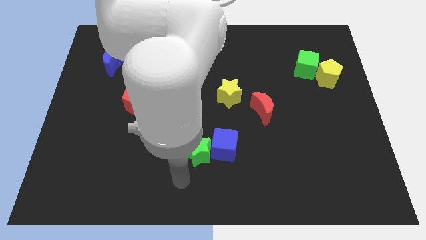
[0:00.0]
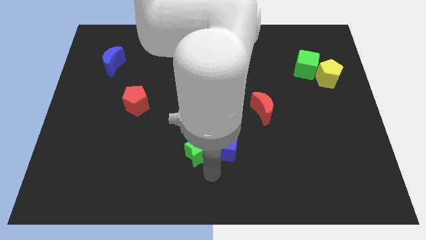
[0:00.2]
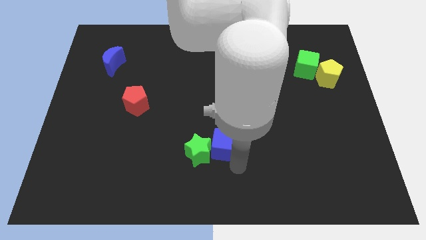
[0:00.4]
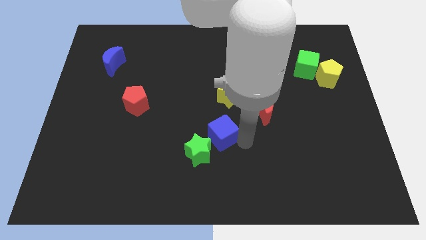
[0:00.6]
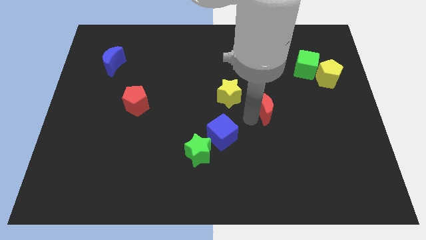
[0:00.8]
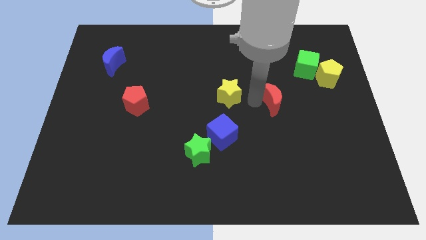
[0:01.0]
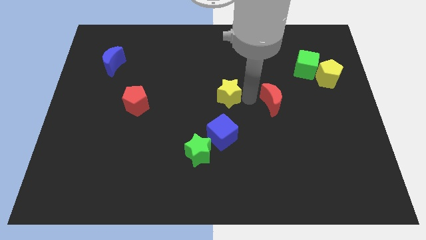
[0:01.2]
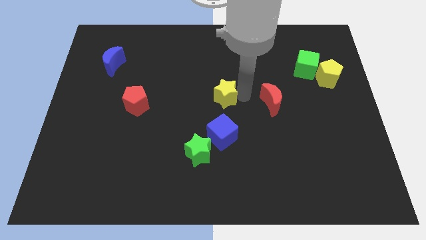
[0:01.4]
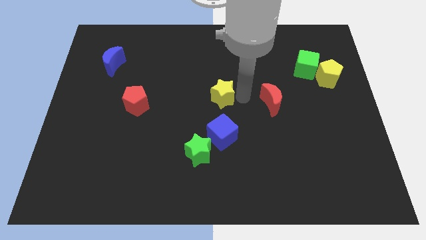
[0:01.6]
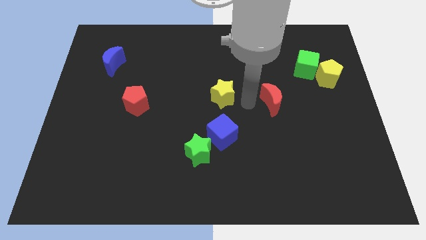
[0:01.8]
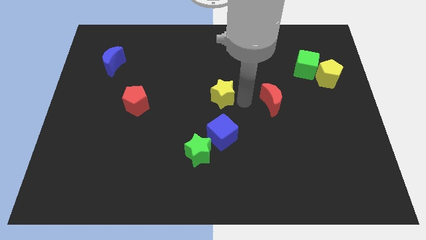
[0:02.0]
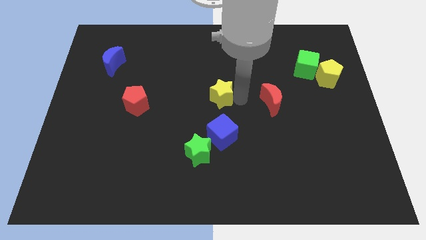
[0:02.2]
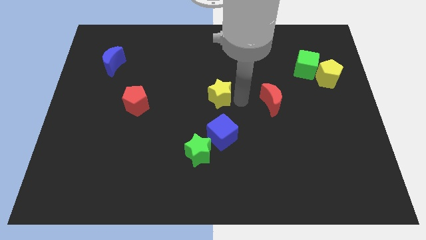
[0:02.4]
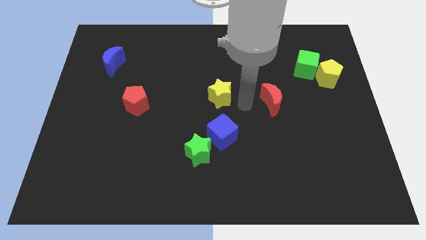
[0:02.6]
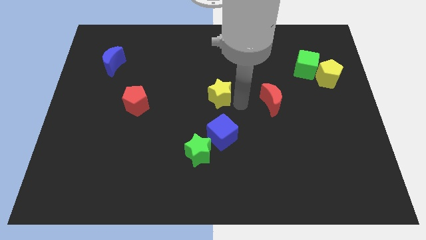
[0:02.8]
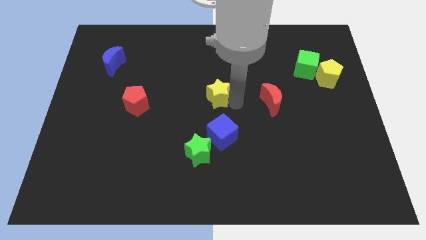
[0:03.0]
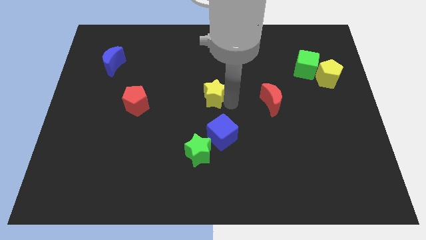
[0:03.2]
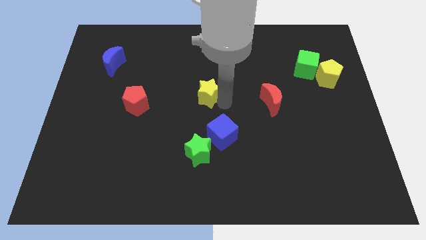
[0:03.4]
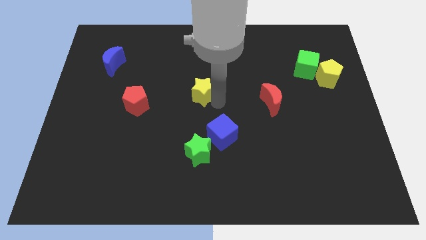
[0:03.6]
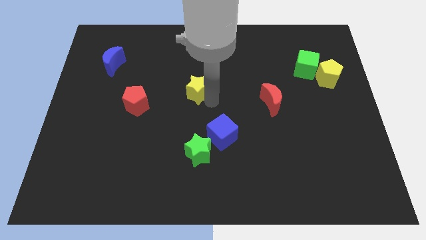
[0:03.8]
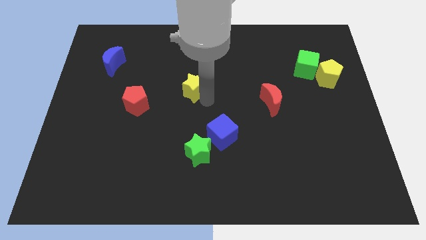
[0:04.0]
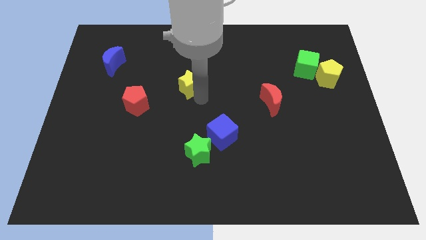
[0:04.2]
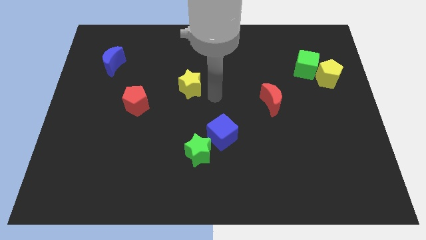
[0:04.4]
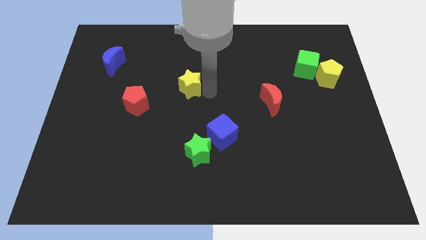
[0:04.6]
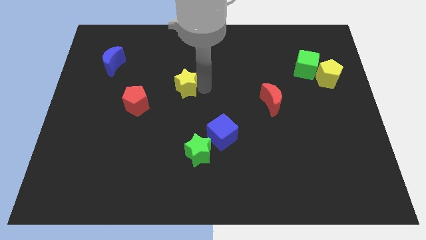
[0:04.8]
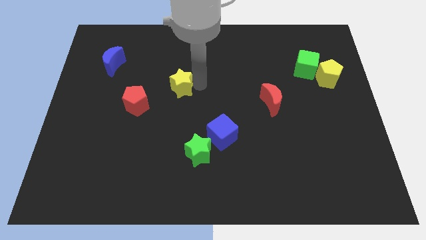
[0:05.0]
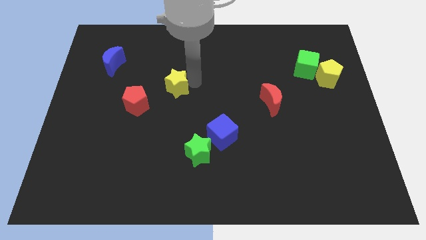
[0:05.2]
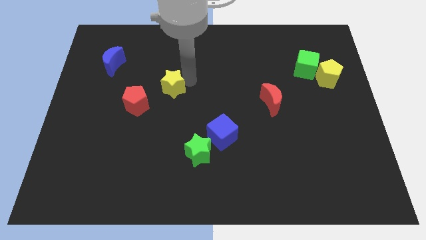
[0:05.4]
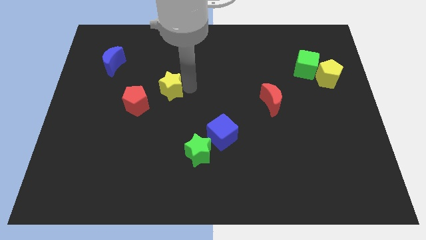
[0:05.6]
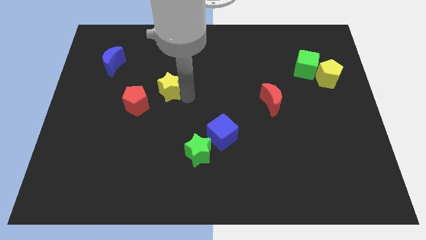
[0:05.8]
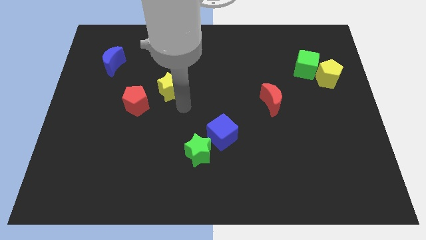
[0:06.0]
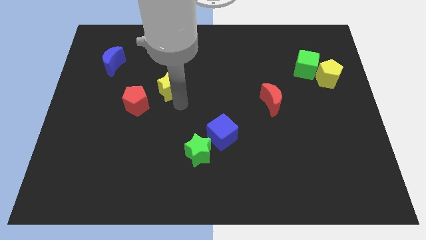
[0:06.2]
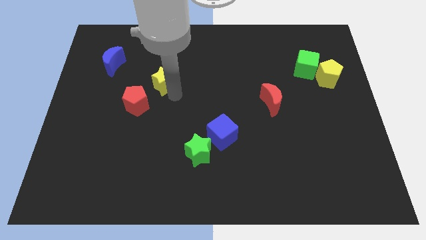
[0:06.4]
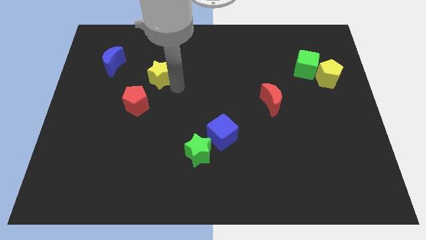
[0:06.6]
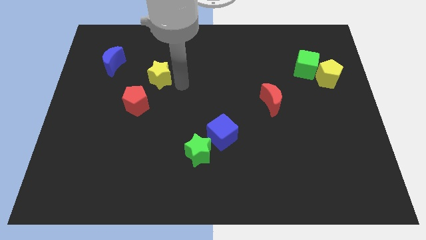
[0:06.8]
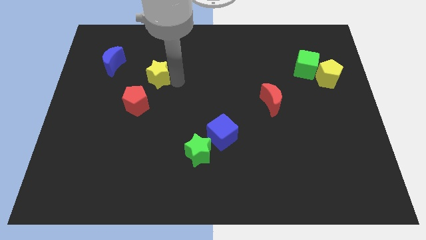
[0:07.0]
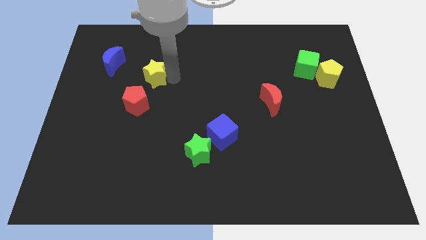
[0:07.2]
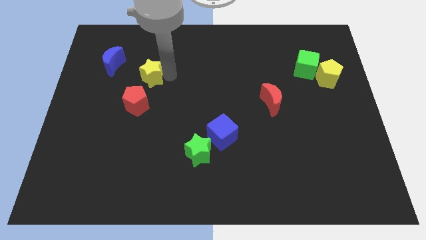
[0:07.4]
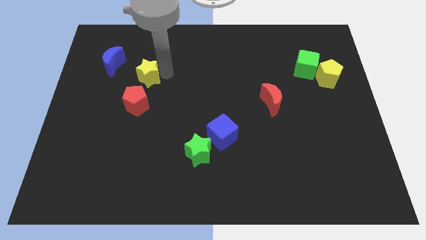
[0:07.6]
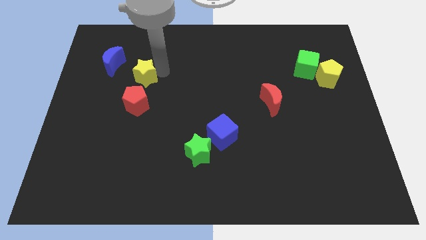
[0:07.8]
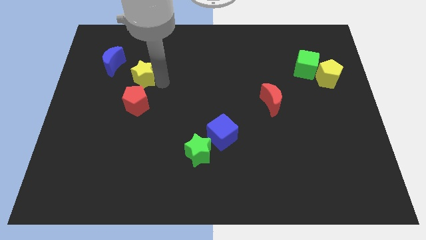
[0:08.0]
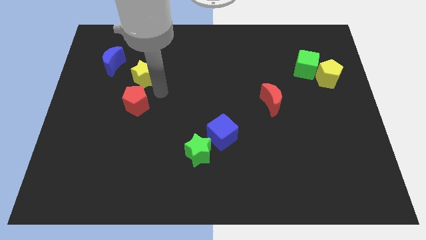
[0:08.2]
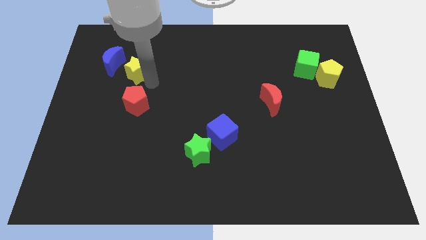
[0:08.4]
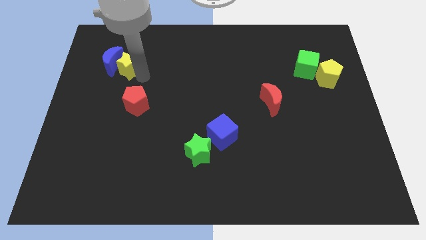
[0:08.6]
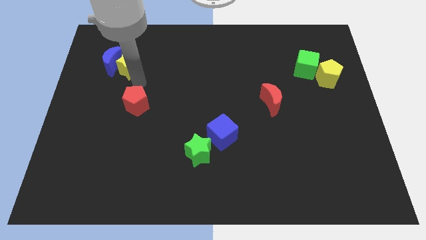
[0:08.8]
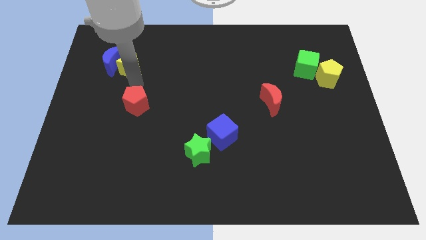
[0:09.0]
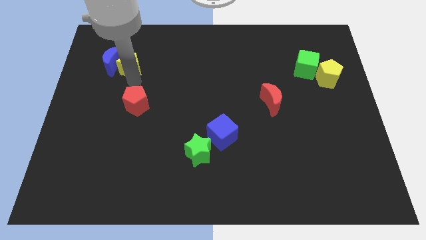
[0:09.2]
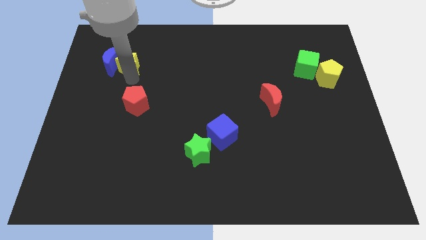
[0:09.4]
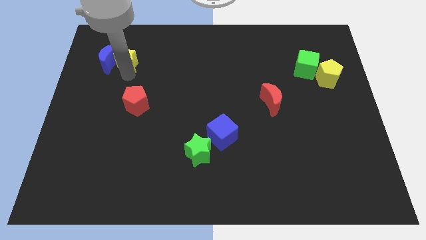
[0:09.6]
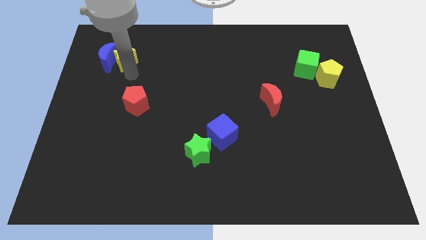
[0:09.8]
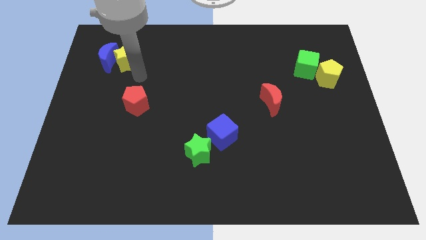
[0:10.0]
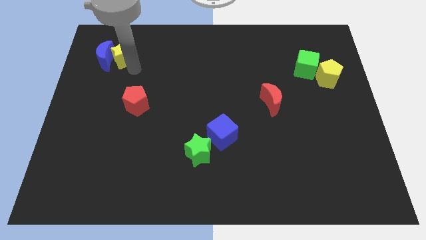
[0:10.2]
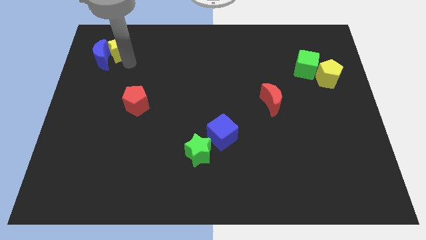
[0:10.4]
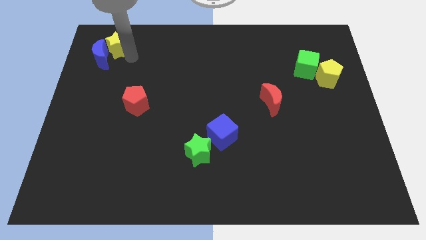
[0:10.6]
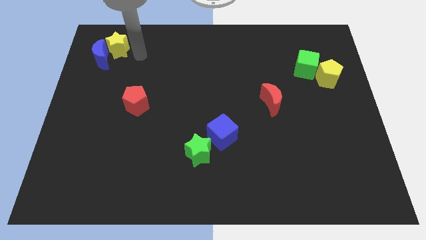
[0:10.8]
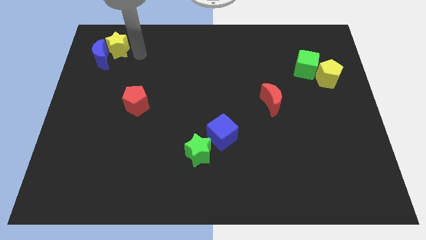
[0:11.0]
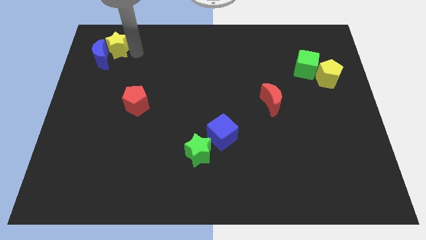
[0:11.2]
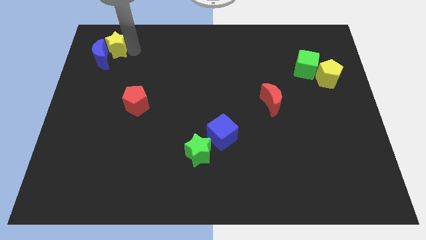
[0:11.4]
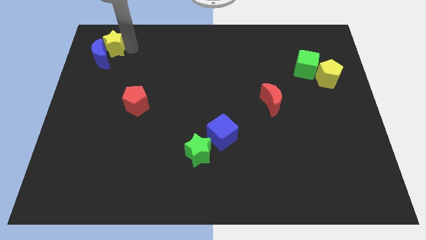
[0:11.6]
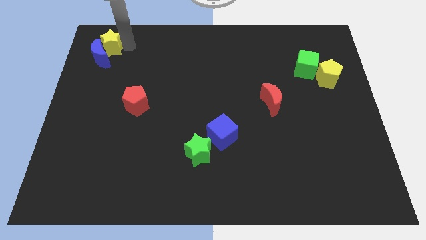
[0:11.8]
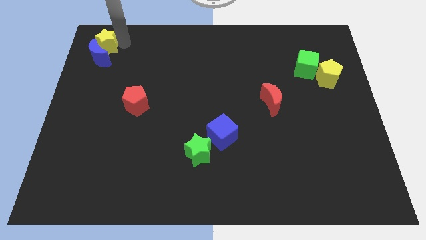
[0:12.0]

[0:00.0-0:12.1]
push the yellow star to the top left of the board
